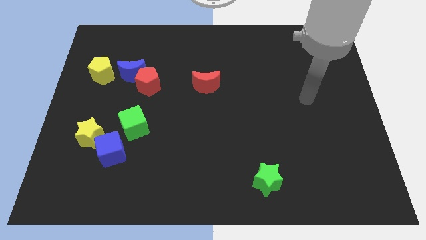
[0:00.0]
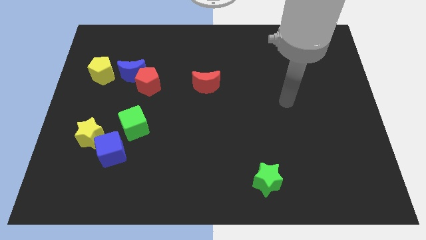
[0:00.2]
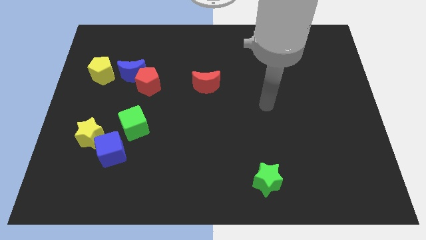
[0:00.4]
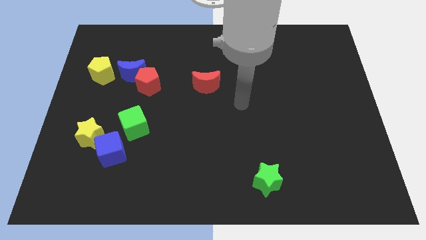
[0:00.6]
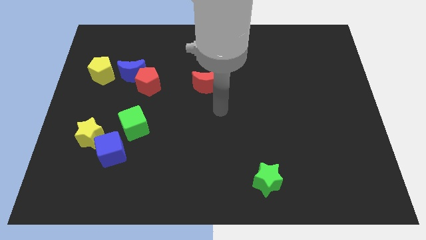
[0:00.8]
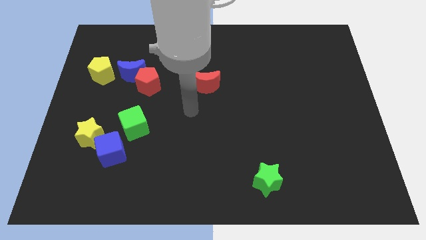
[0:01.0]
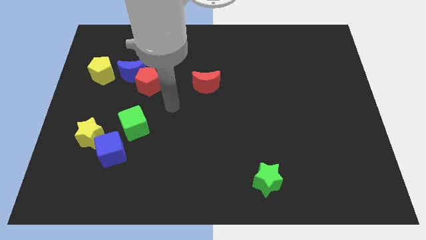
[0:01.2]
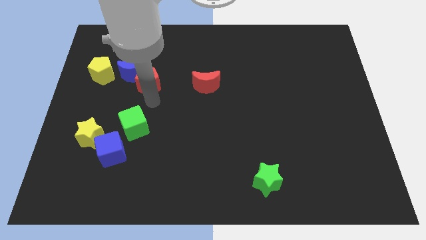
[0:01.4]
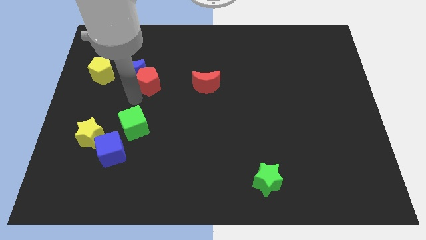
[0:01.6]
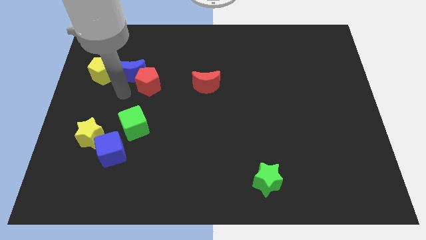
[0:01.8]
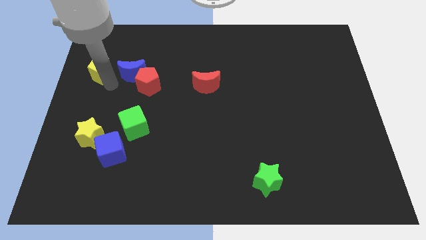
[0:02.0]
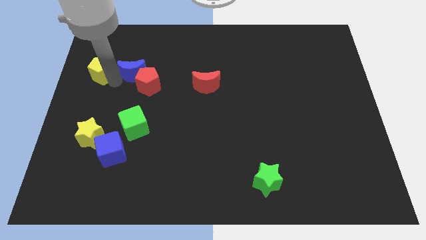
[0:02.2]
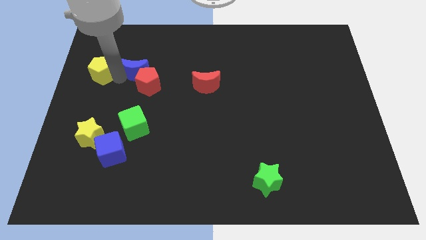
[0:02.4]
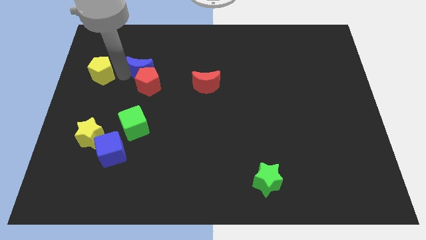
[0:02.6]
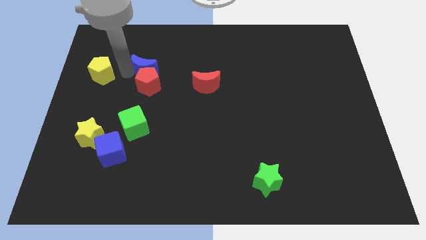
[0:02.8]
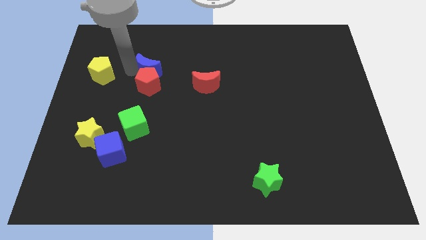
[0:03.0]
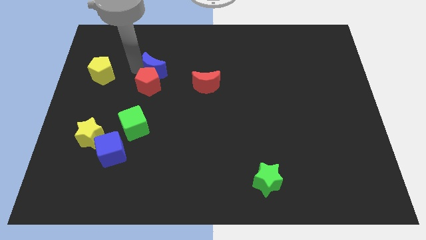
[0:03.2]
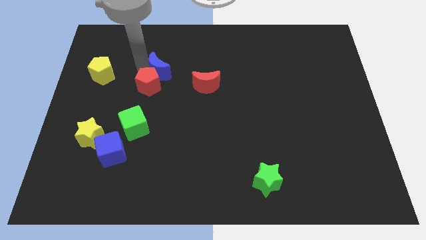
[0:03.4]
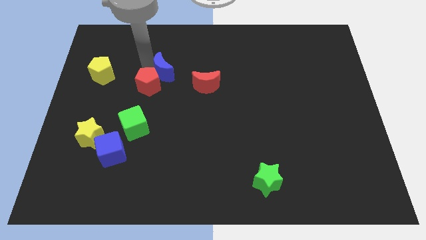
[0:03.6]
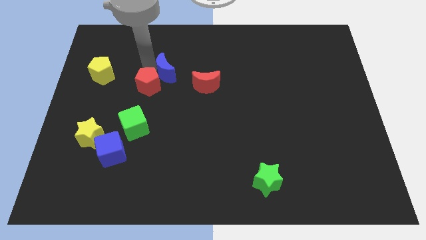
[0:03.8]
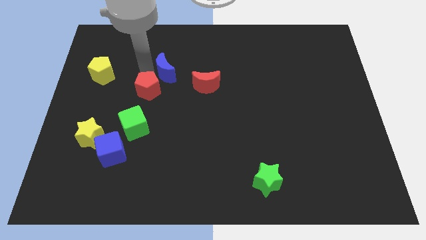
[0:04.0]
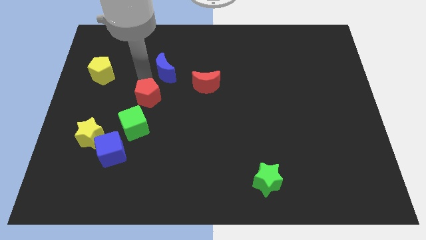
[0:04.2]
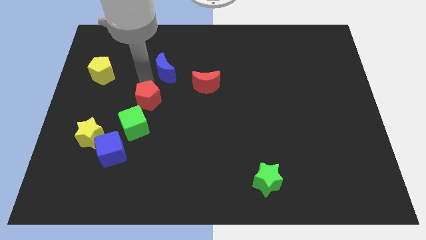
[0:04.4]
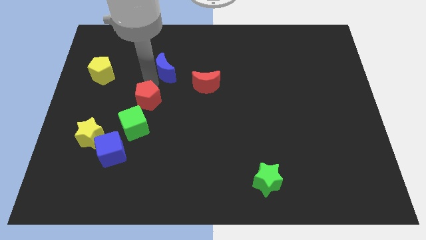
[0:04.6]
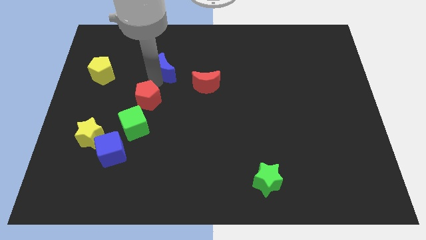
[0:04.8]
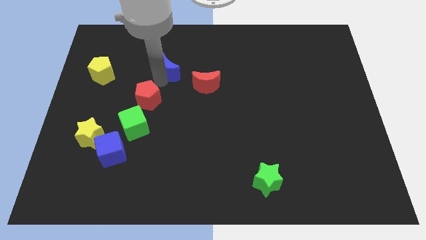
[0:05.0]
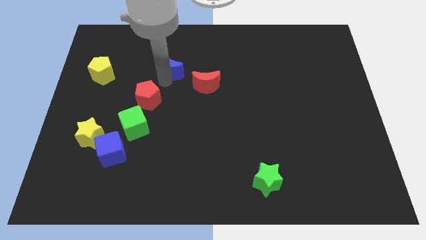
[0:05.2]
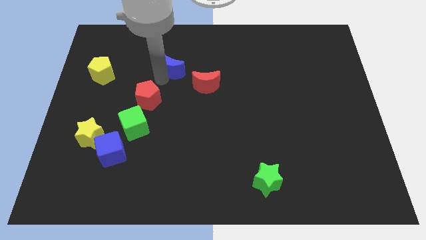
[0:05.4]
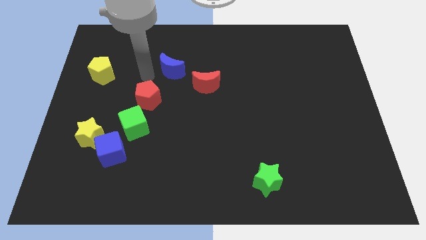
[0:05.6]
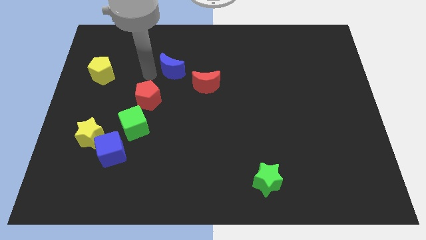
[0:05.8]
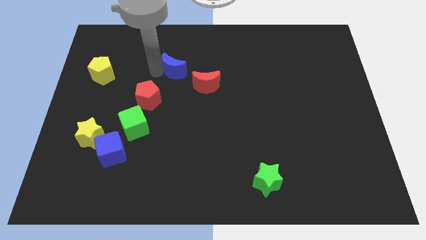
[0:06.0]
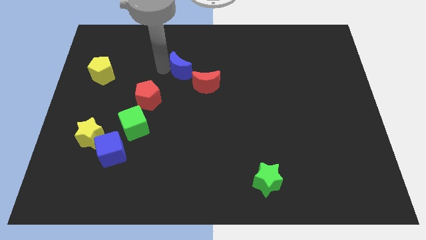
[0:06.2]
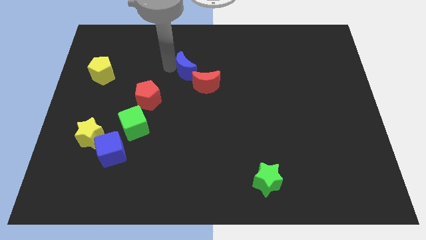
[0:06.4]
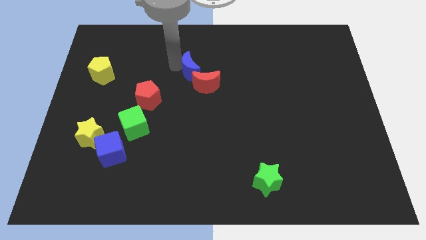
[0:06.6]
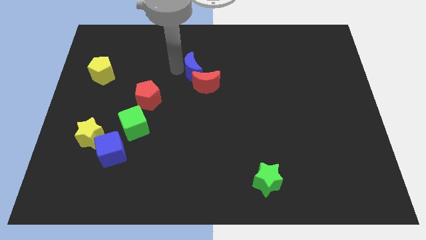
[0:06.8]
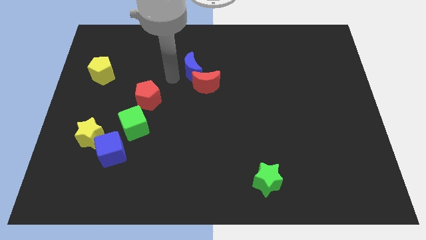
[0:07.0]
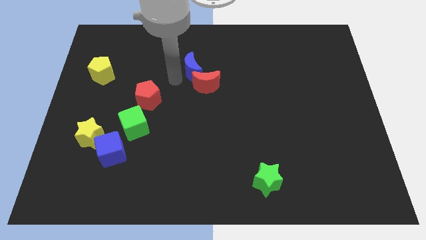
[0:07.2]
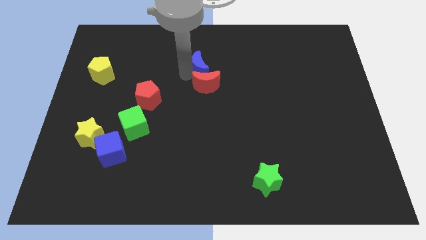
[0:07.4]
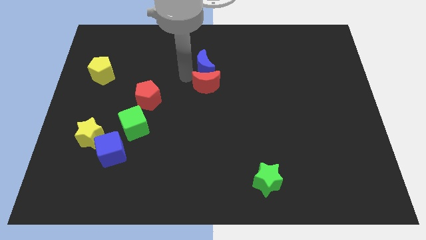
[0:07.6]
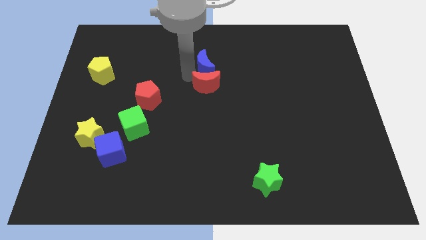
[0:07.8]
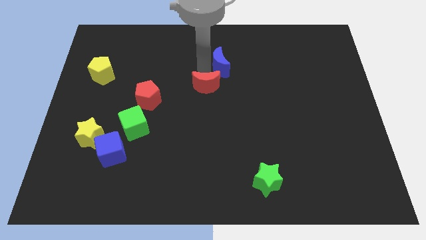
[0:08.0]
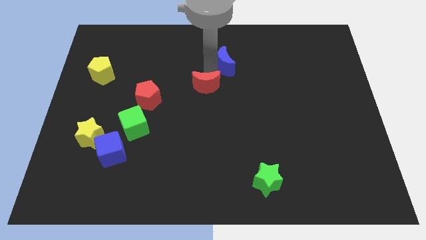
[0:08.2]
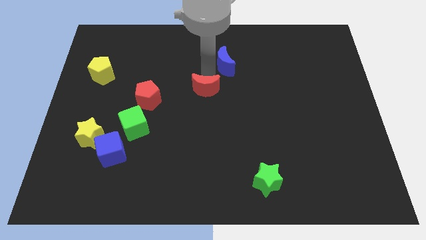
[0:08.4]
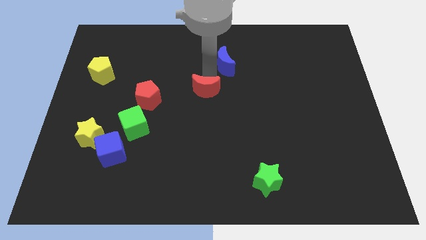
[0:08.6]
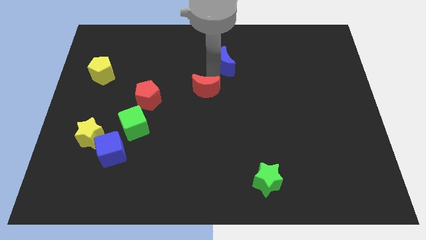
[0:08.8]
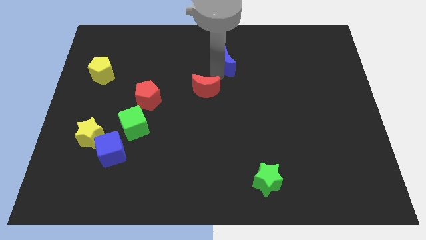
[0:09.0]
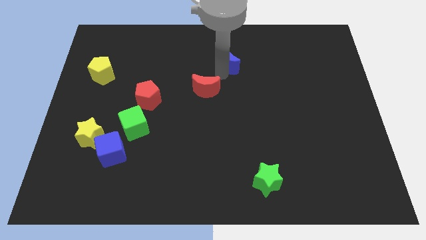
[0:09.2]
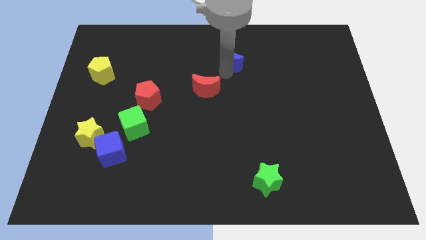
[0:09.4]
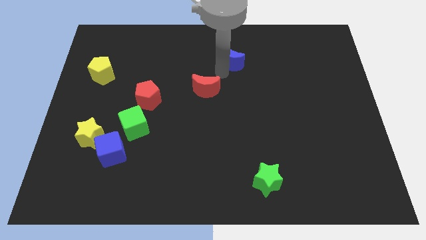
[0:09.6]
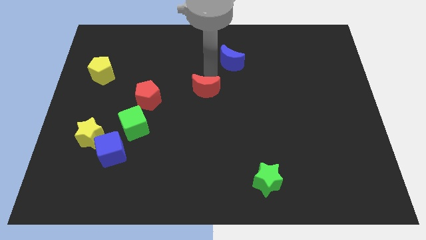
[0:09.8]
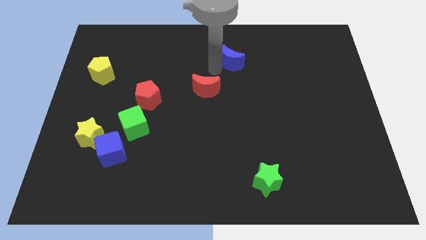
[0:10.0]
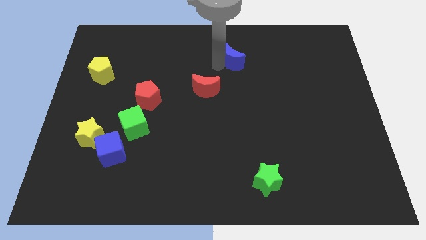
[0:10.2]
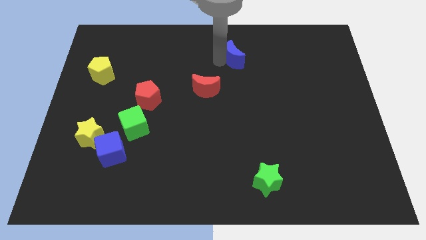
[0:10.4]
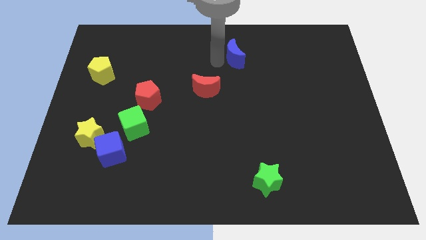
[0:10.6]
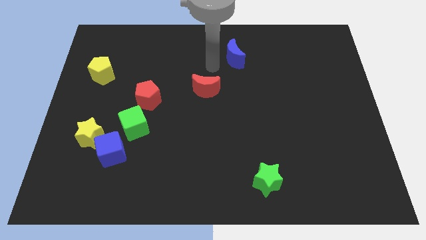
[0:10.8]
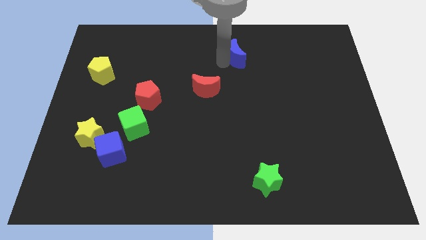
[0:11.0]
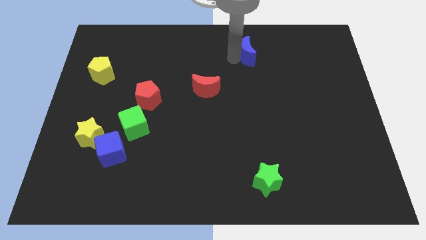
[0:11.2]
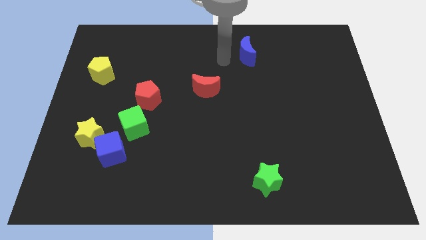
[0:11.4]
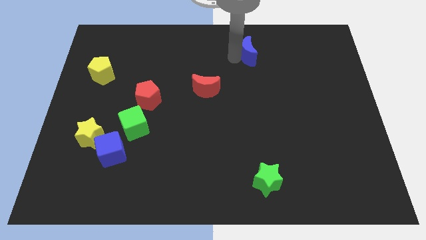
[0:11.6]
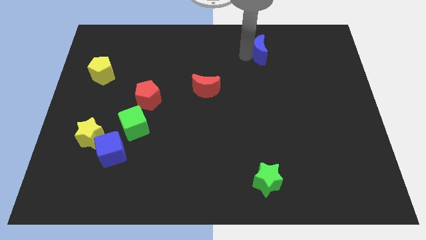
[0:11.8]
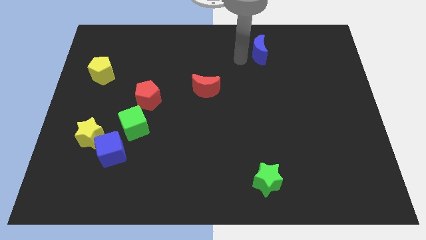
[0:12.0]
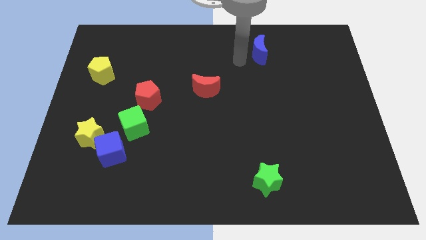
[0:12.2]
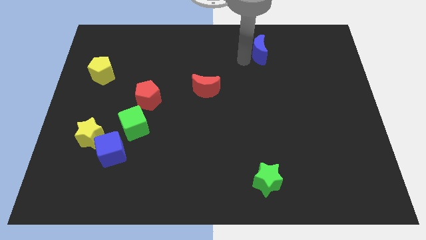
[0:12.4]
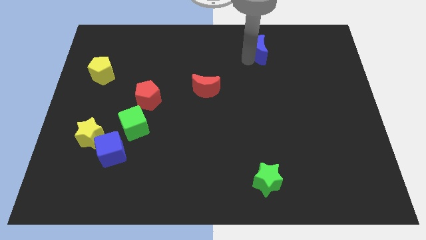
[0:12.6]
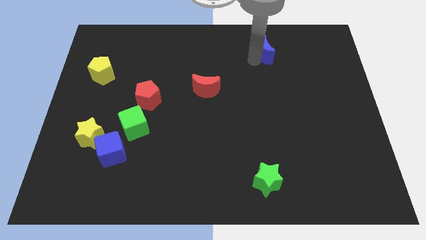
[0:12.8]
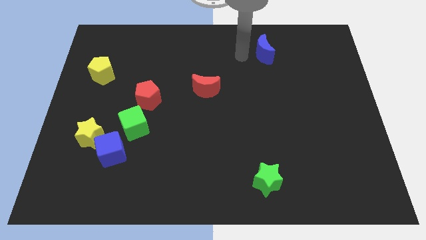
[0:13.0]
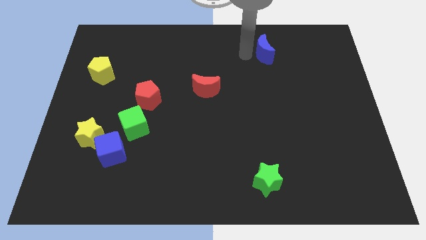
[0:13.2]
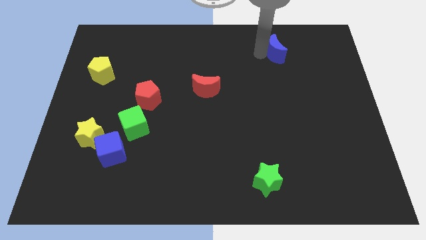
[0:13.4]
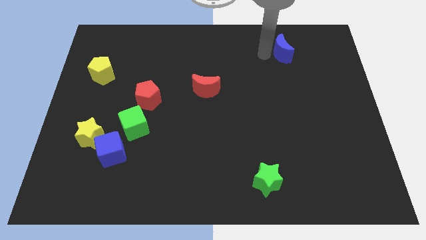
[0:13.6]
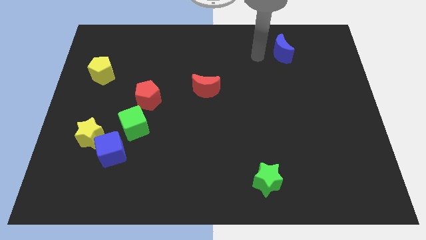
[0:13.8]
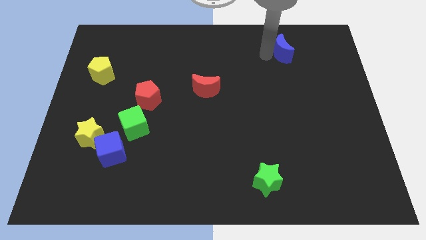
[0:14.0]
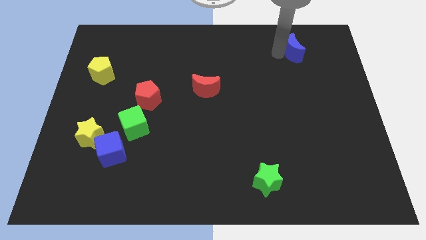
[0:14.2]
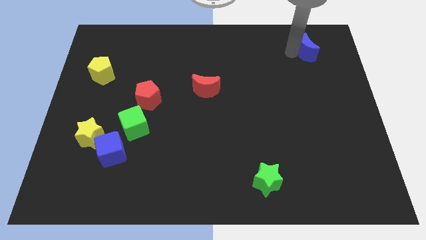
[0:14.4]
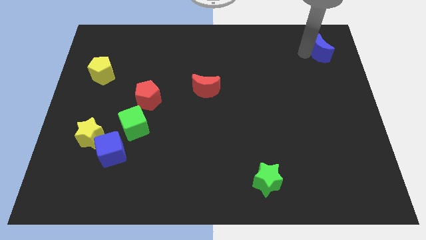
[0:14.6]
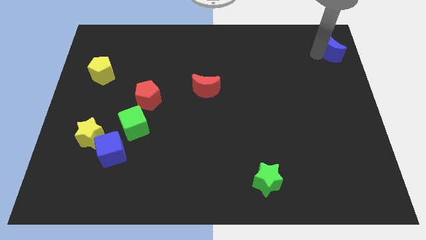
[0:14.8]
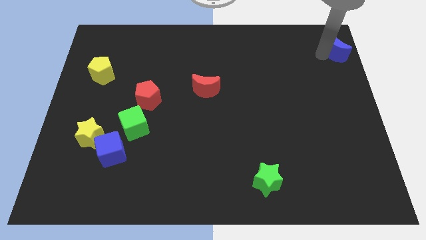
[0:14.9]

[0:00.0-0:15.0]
slide the blue moon to the top right of the board

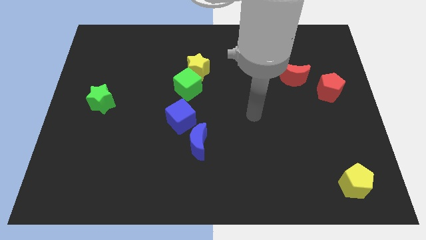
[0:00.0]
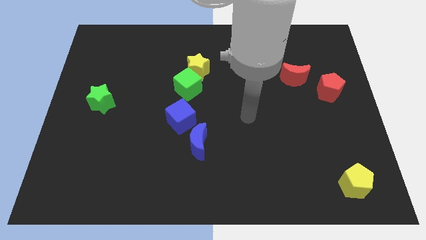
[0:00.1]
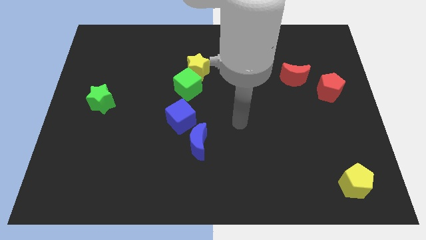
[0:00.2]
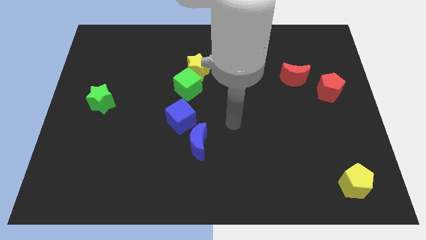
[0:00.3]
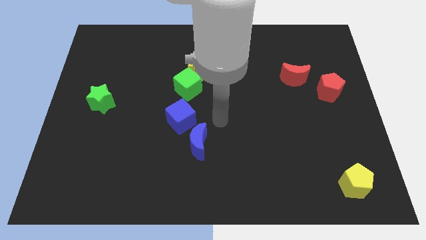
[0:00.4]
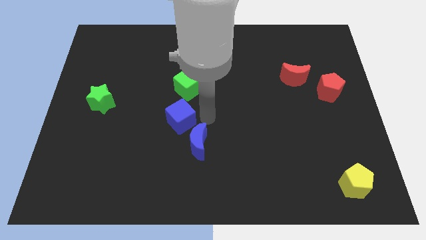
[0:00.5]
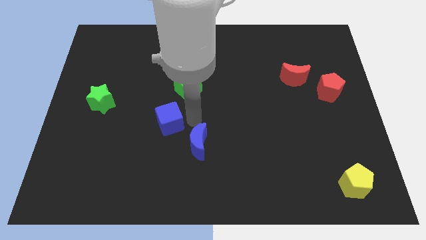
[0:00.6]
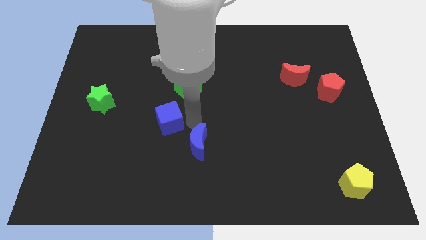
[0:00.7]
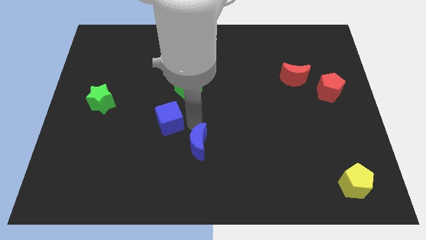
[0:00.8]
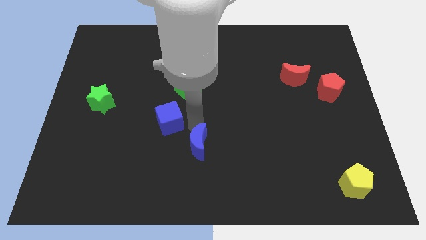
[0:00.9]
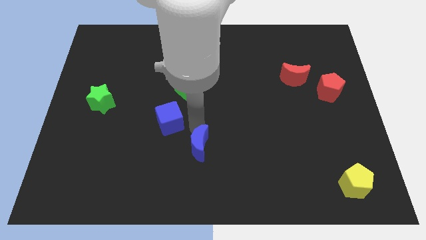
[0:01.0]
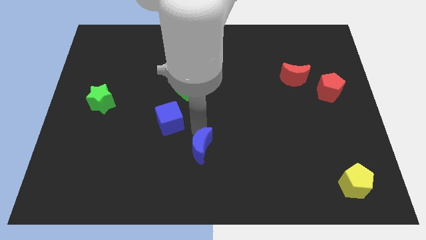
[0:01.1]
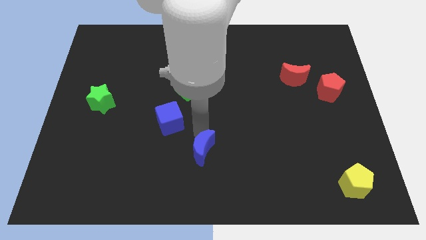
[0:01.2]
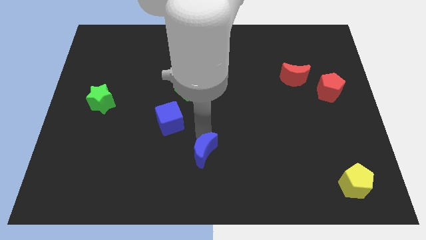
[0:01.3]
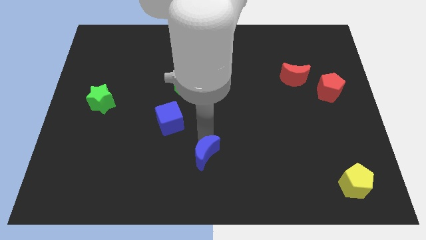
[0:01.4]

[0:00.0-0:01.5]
move the blue moon to the bottom
